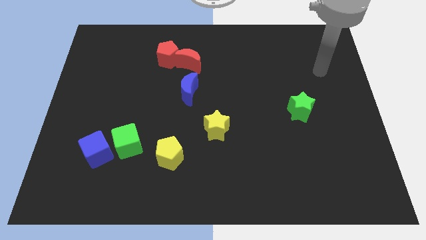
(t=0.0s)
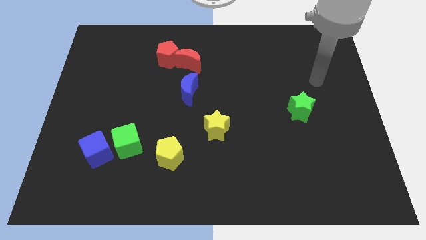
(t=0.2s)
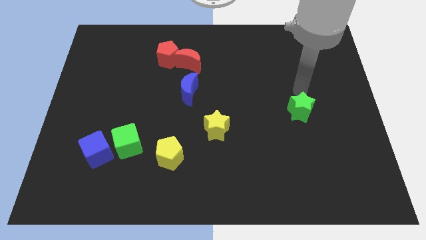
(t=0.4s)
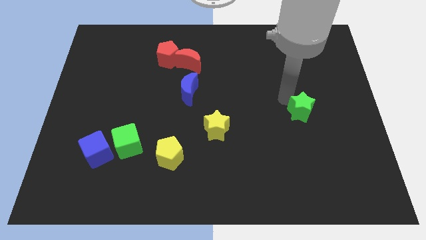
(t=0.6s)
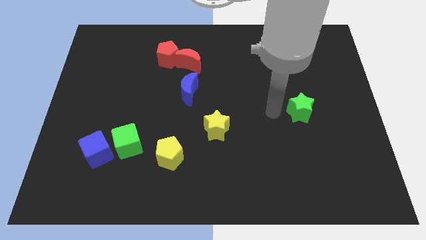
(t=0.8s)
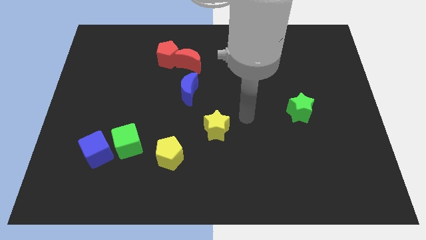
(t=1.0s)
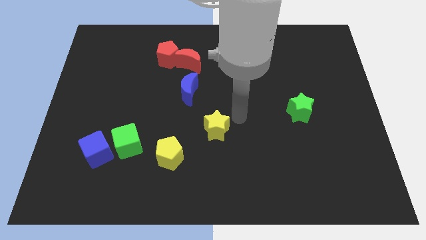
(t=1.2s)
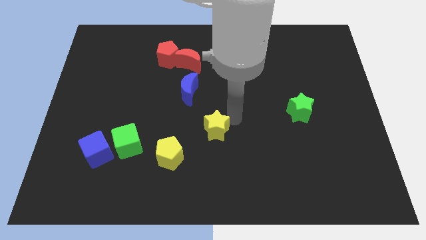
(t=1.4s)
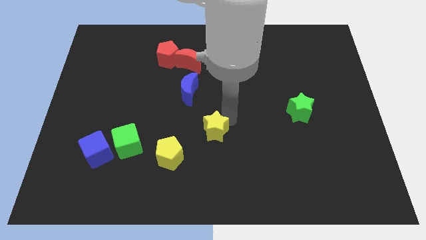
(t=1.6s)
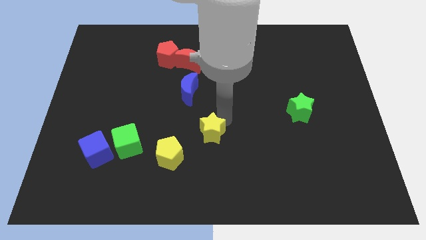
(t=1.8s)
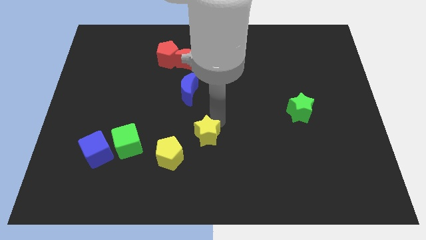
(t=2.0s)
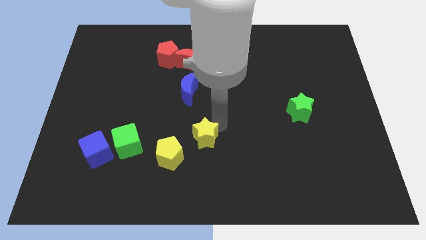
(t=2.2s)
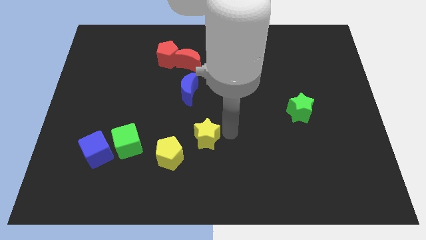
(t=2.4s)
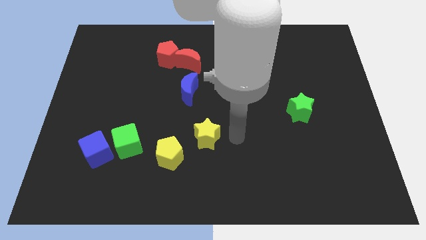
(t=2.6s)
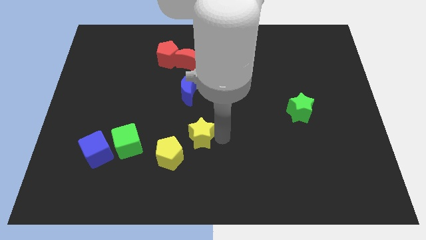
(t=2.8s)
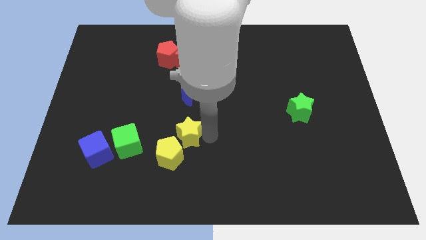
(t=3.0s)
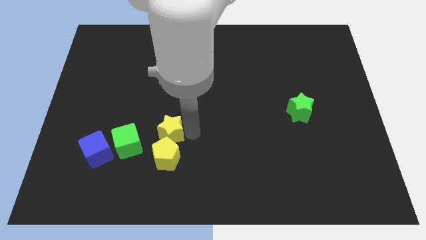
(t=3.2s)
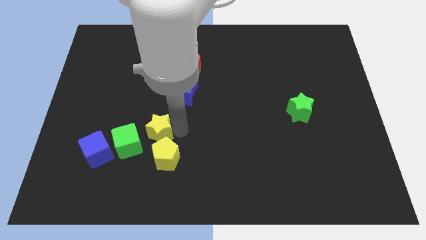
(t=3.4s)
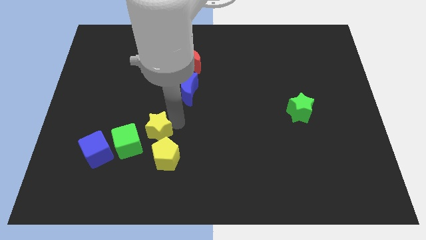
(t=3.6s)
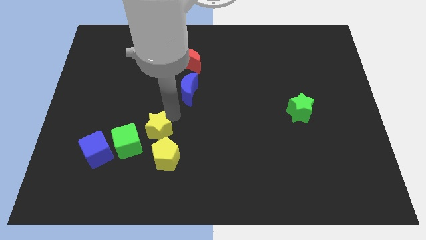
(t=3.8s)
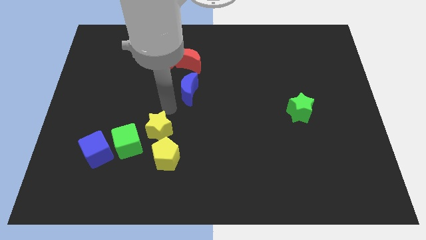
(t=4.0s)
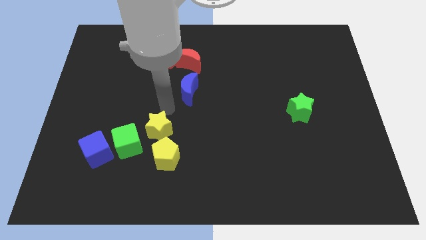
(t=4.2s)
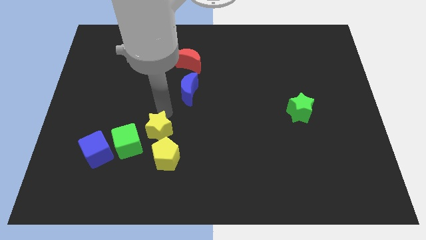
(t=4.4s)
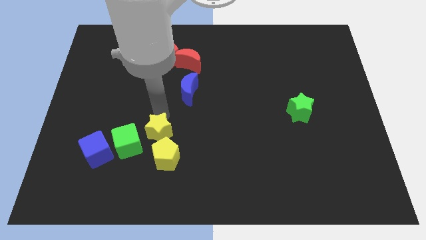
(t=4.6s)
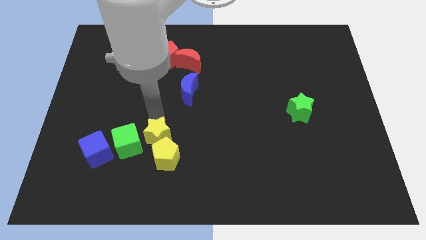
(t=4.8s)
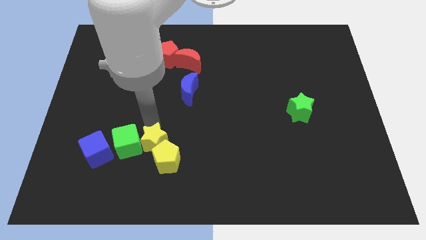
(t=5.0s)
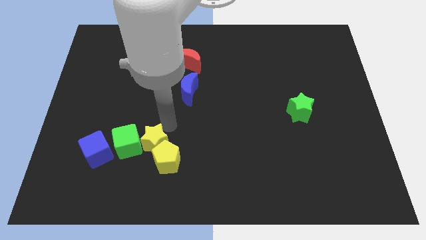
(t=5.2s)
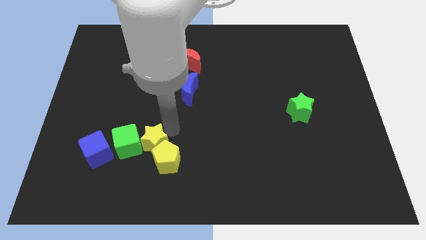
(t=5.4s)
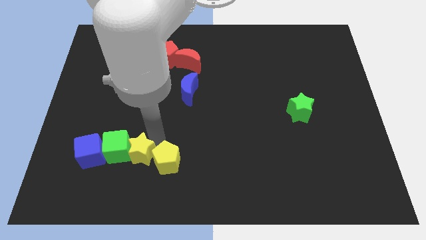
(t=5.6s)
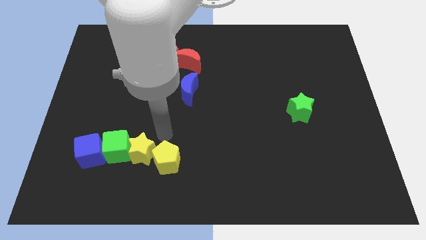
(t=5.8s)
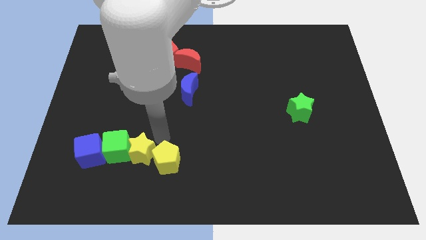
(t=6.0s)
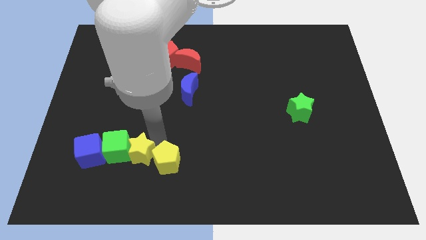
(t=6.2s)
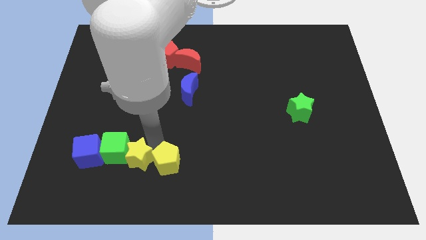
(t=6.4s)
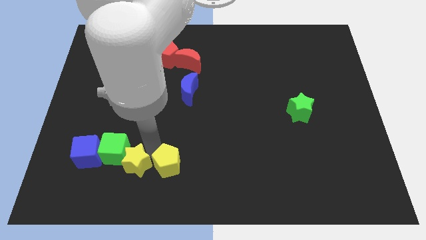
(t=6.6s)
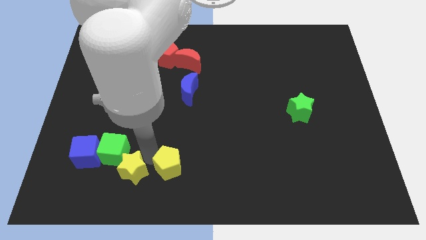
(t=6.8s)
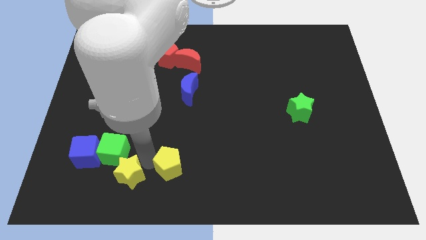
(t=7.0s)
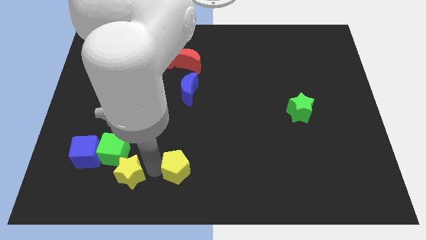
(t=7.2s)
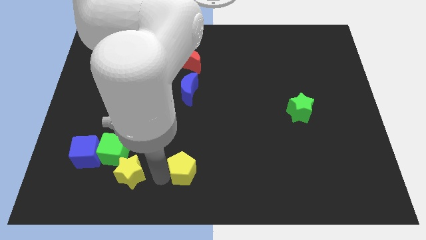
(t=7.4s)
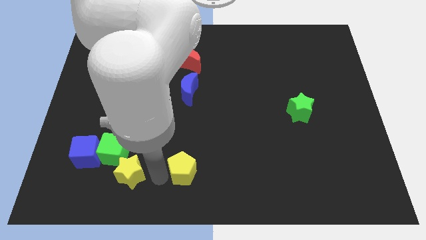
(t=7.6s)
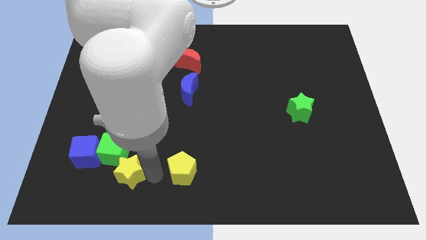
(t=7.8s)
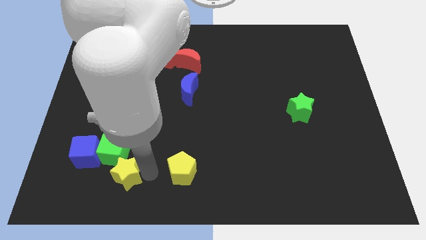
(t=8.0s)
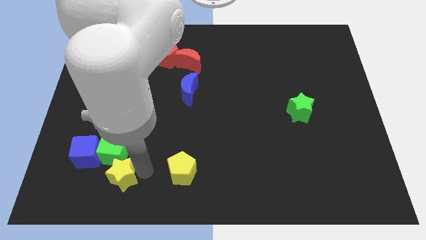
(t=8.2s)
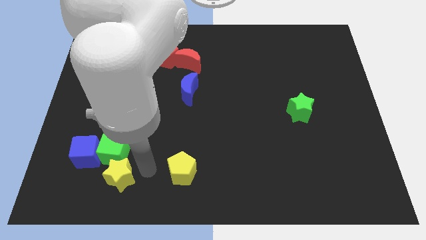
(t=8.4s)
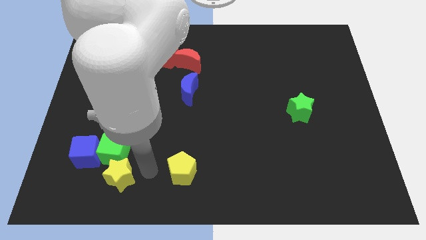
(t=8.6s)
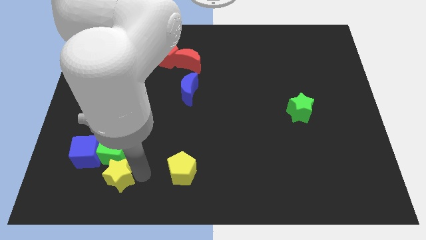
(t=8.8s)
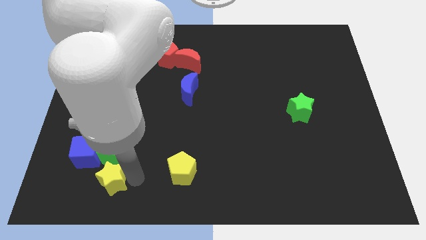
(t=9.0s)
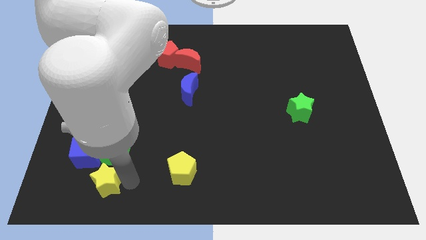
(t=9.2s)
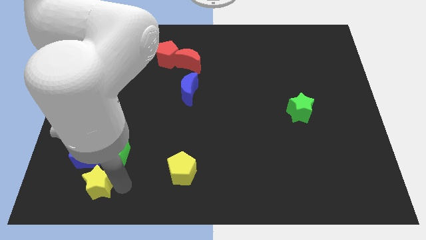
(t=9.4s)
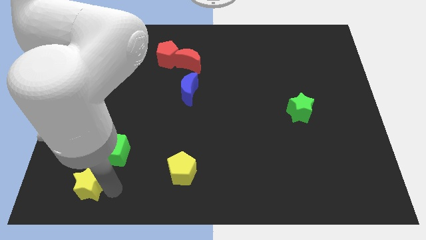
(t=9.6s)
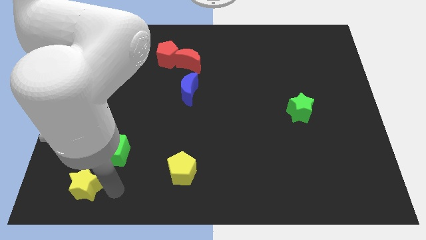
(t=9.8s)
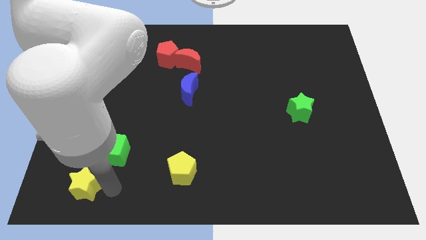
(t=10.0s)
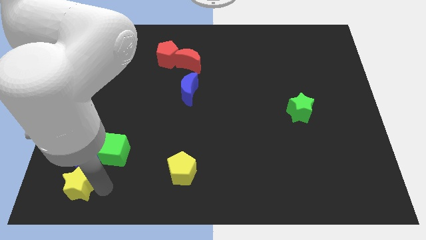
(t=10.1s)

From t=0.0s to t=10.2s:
push the yellow star to the bottom left of the board

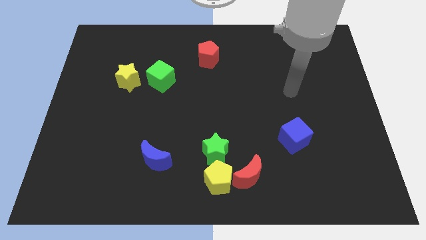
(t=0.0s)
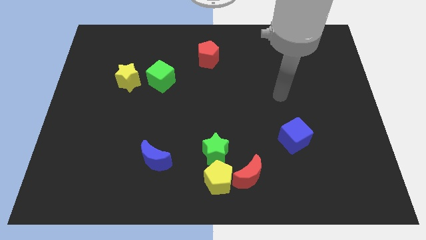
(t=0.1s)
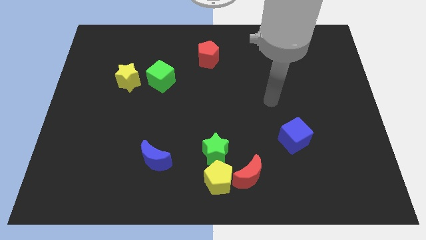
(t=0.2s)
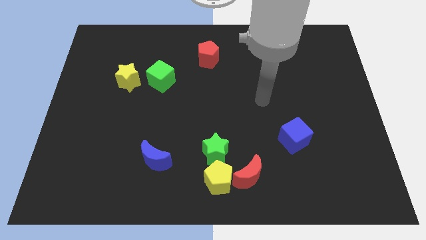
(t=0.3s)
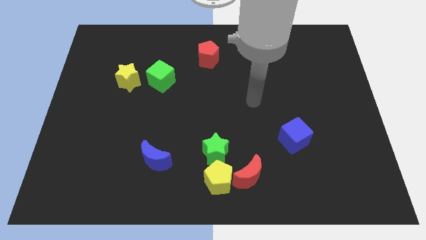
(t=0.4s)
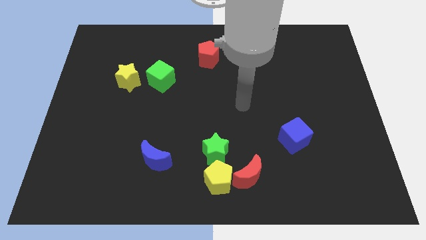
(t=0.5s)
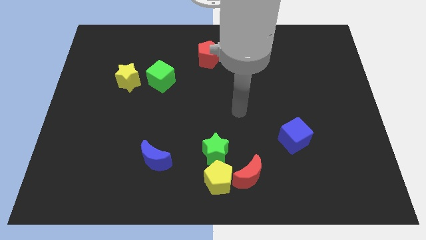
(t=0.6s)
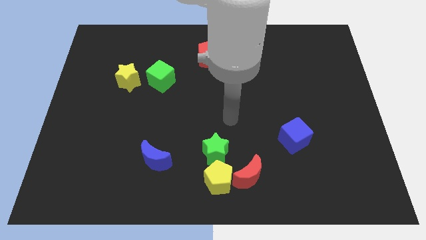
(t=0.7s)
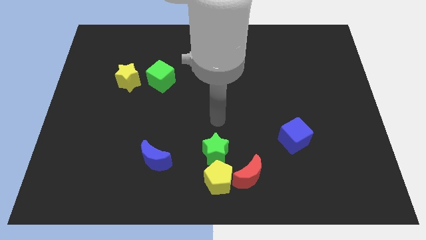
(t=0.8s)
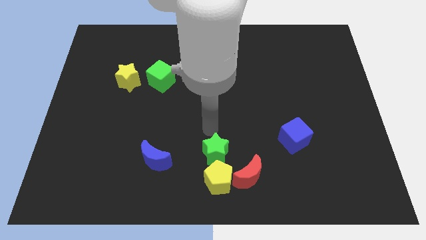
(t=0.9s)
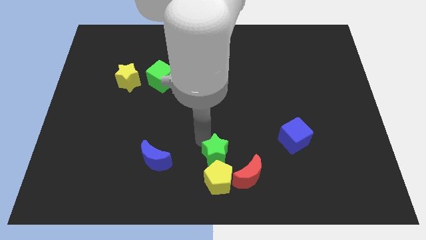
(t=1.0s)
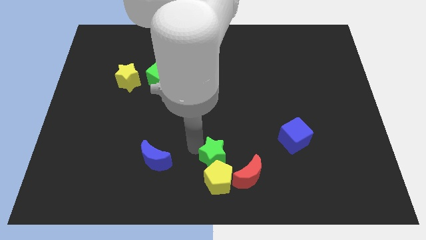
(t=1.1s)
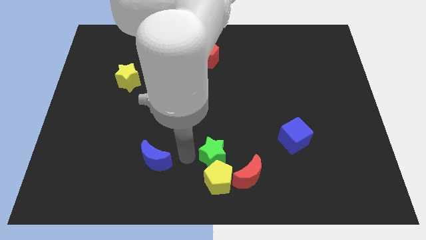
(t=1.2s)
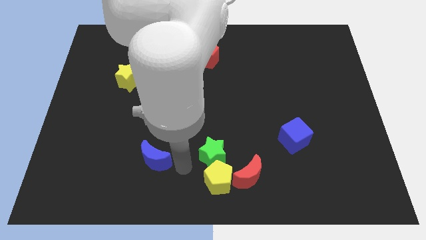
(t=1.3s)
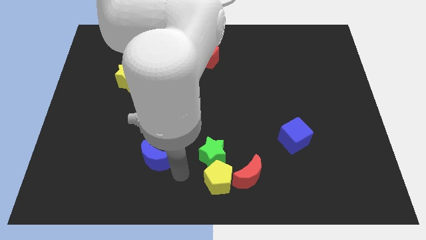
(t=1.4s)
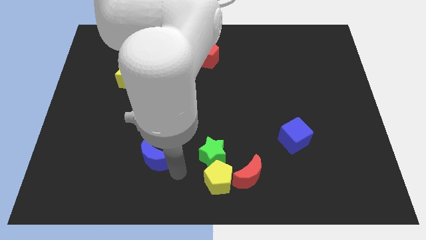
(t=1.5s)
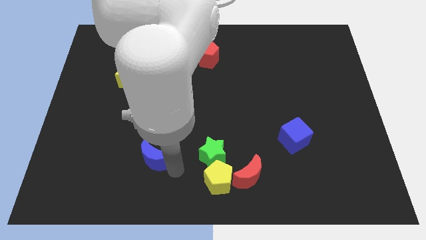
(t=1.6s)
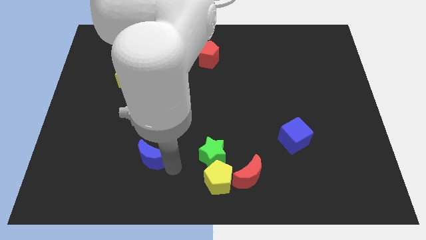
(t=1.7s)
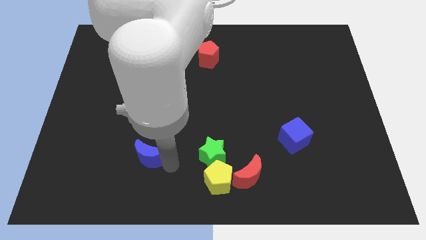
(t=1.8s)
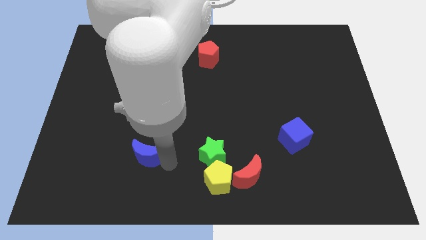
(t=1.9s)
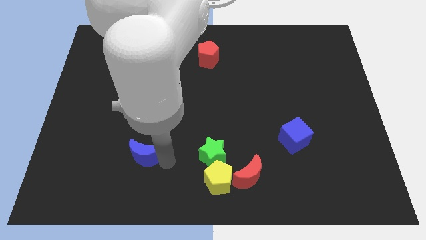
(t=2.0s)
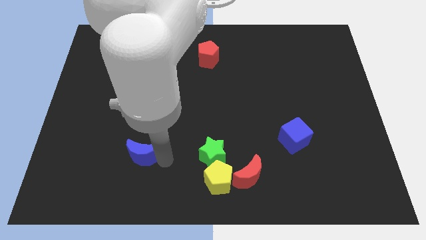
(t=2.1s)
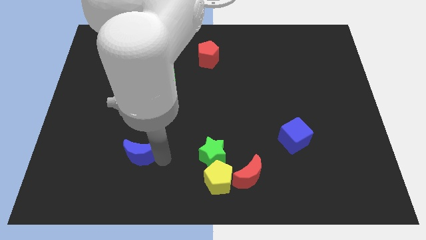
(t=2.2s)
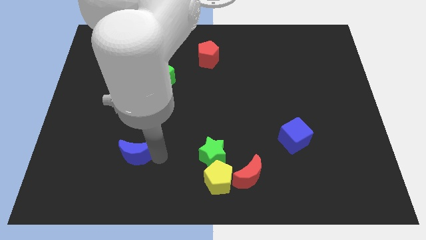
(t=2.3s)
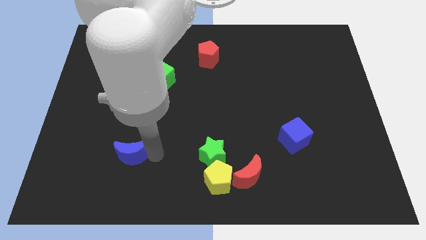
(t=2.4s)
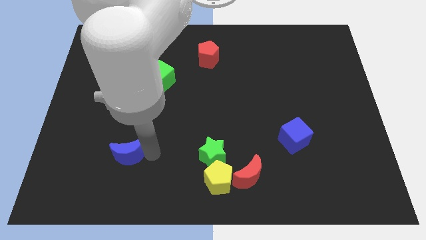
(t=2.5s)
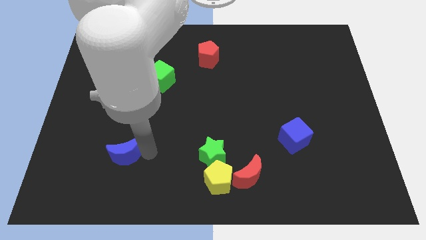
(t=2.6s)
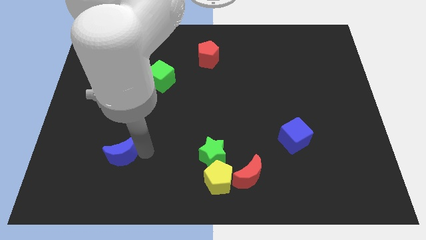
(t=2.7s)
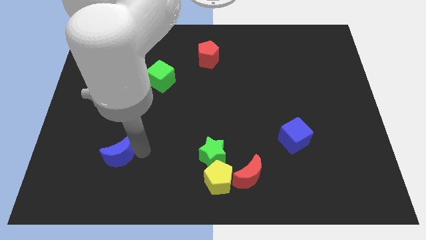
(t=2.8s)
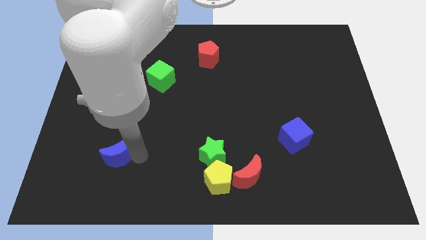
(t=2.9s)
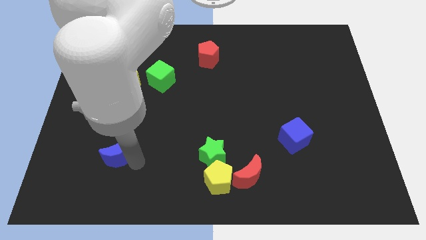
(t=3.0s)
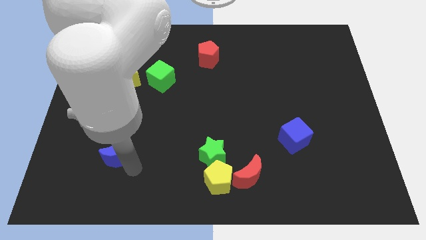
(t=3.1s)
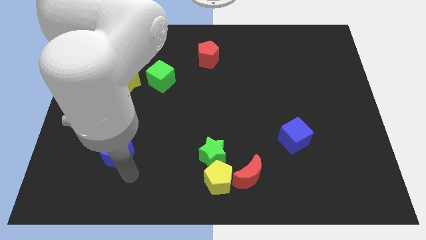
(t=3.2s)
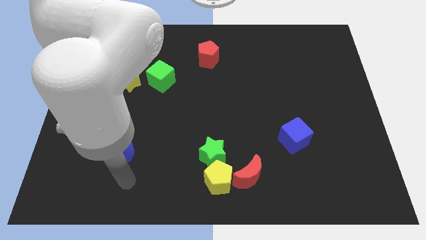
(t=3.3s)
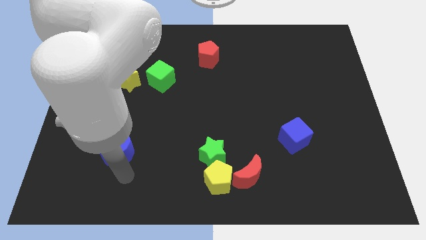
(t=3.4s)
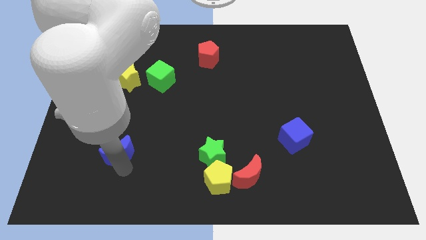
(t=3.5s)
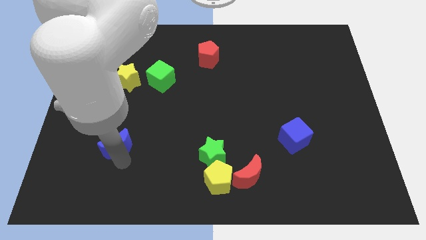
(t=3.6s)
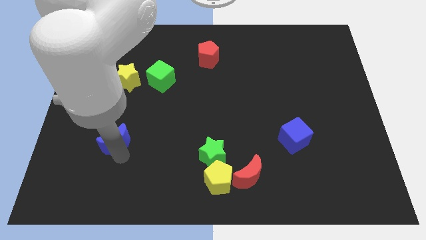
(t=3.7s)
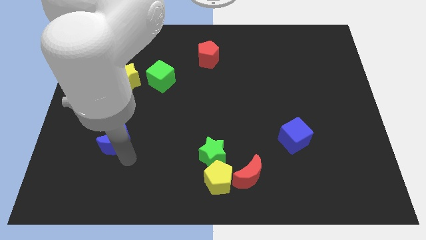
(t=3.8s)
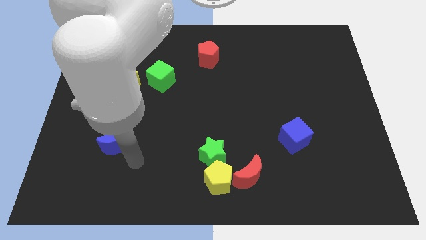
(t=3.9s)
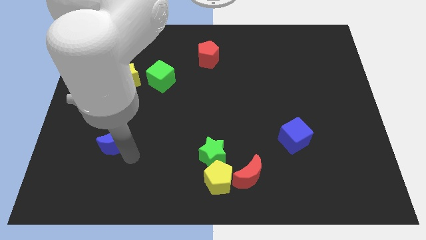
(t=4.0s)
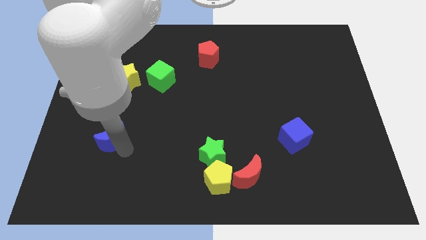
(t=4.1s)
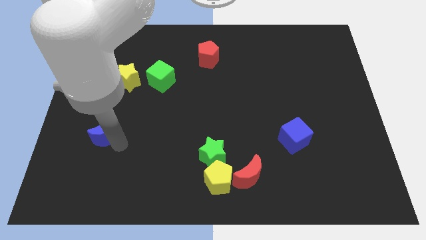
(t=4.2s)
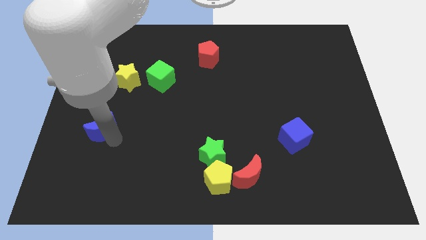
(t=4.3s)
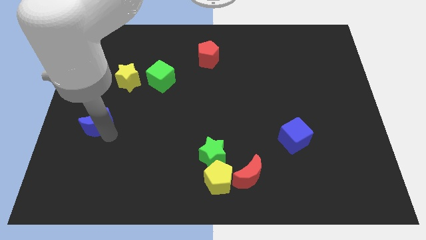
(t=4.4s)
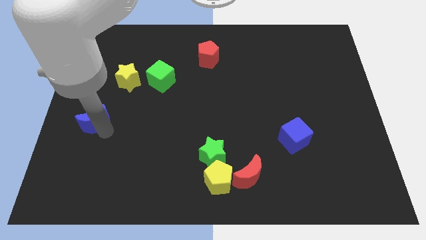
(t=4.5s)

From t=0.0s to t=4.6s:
push the blue moon to the left side of the board
